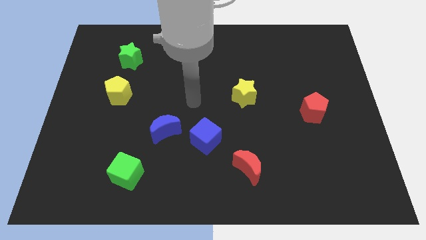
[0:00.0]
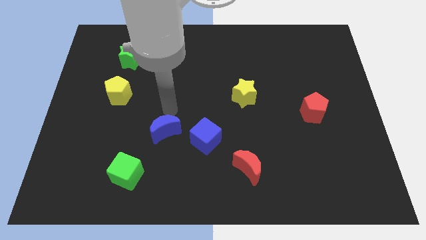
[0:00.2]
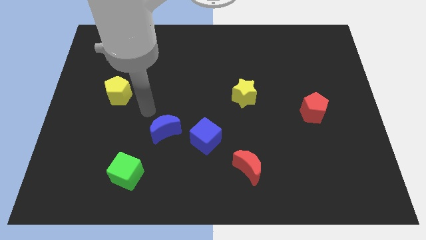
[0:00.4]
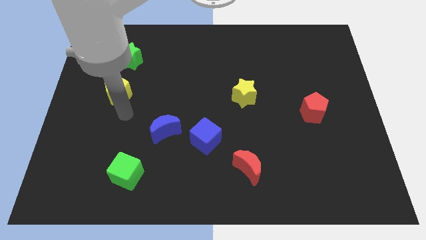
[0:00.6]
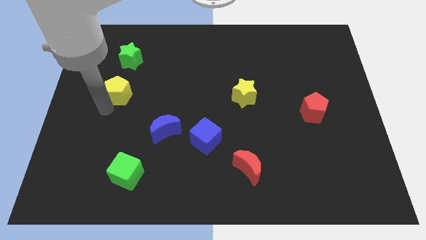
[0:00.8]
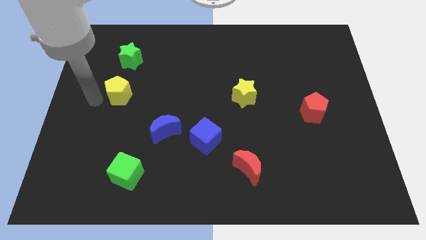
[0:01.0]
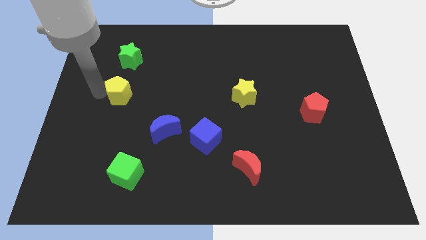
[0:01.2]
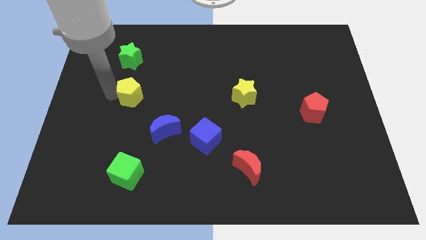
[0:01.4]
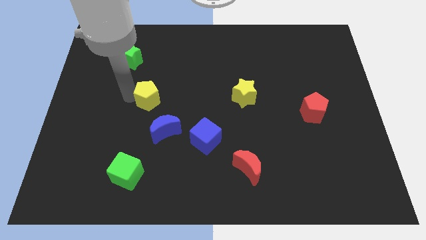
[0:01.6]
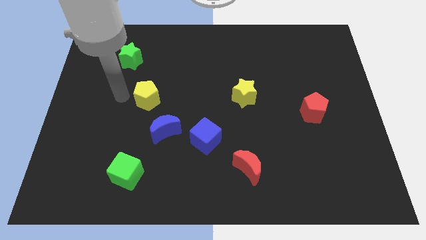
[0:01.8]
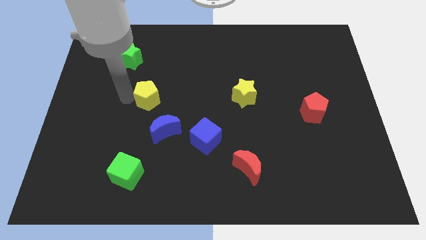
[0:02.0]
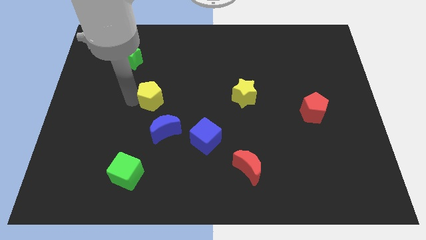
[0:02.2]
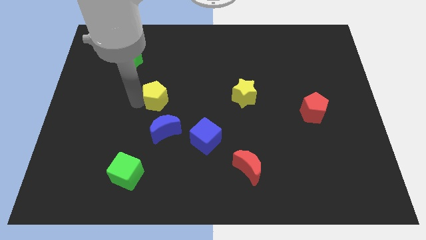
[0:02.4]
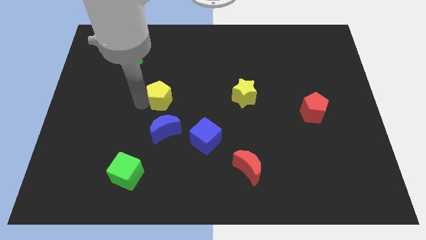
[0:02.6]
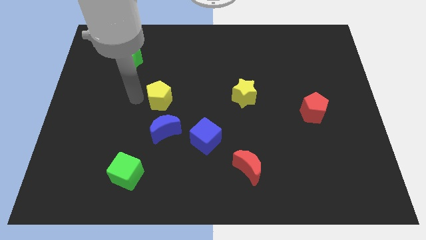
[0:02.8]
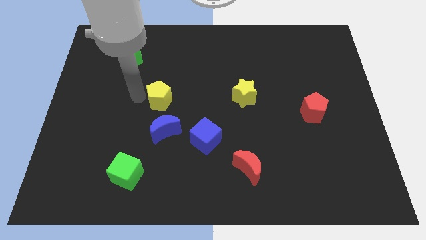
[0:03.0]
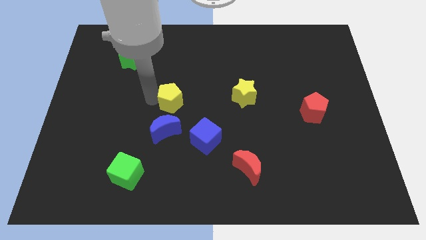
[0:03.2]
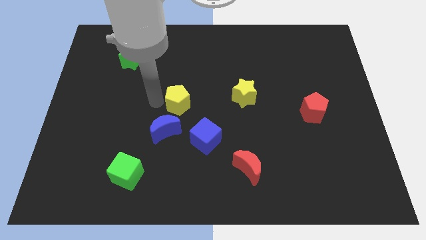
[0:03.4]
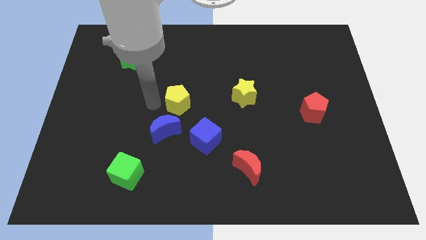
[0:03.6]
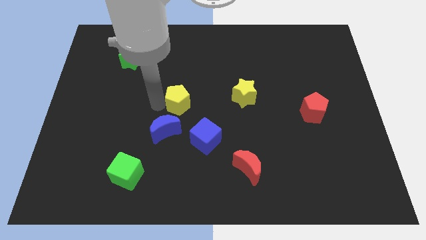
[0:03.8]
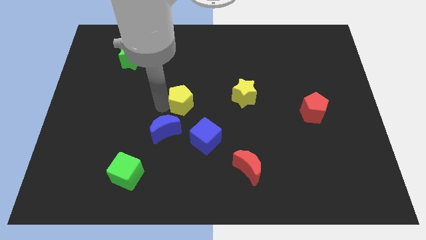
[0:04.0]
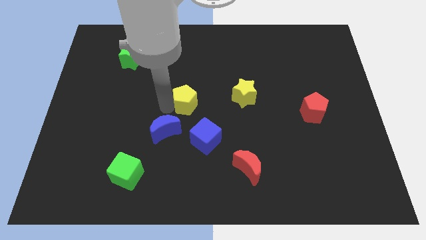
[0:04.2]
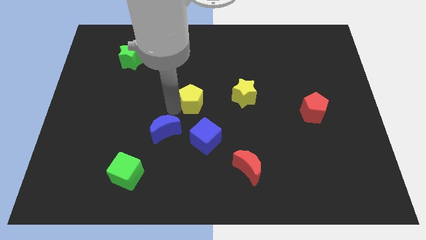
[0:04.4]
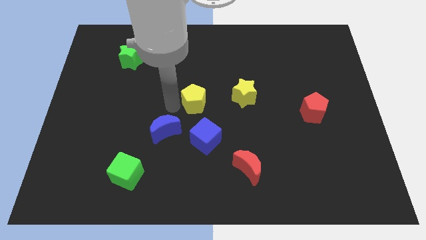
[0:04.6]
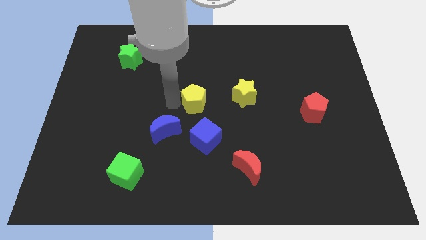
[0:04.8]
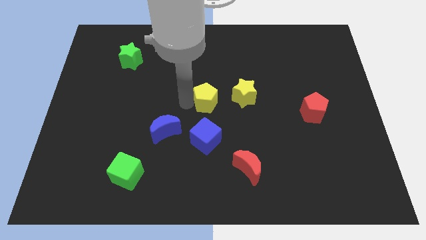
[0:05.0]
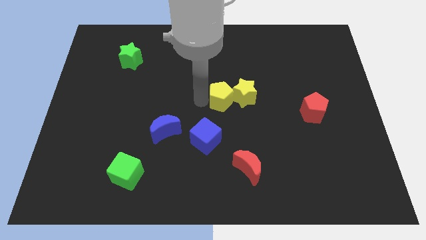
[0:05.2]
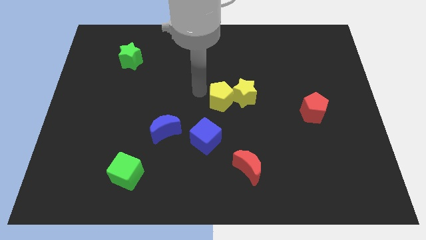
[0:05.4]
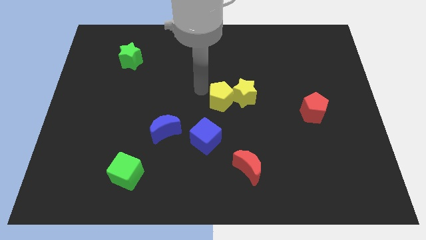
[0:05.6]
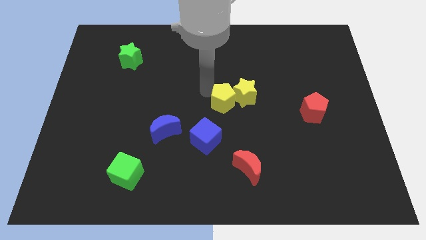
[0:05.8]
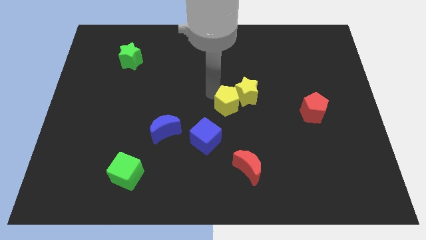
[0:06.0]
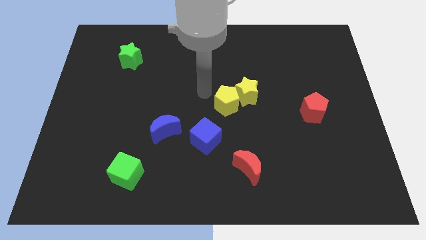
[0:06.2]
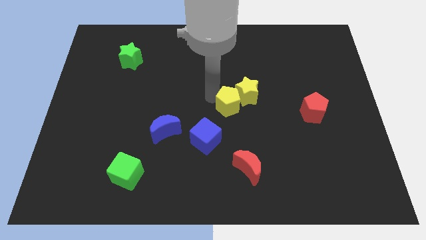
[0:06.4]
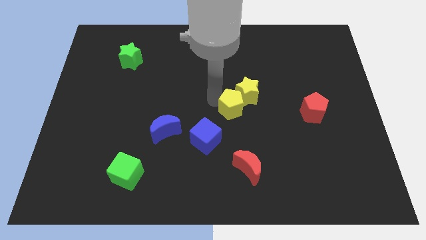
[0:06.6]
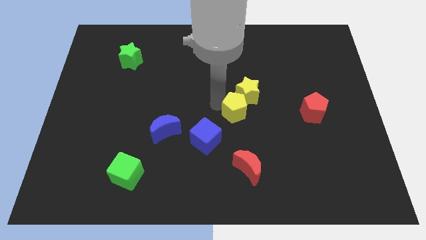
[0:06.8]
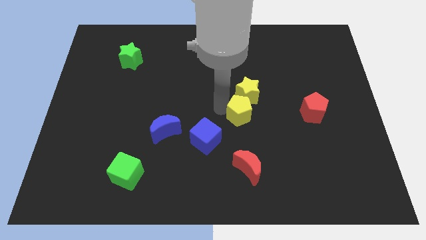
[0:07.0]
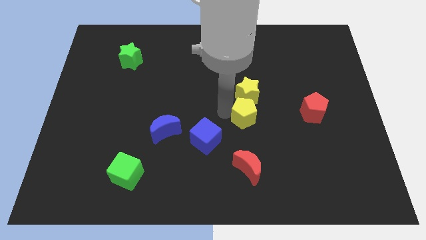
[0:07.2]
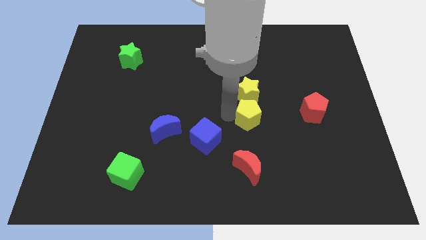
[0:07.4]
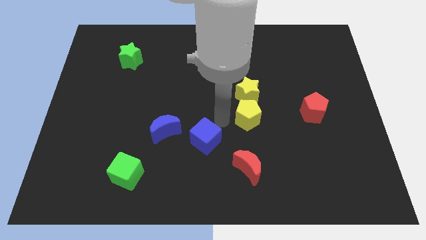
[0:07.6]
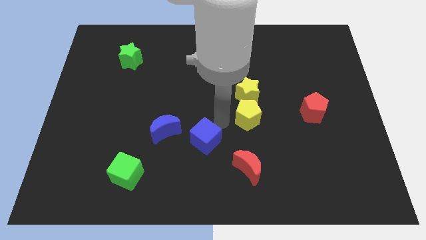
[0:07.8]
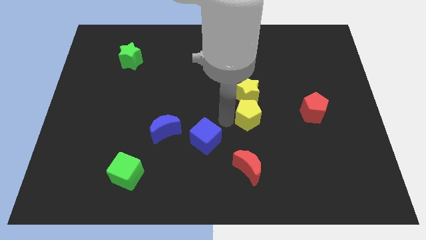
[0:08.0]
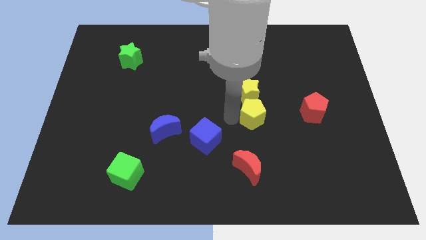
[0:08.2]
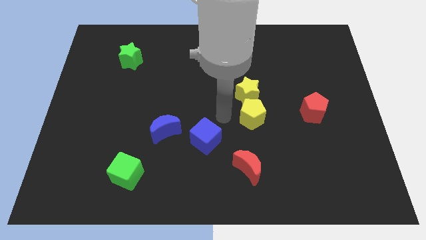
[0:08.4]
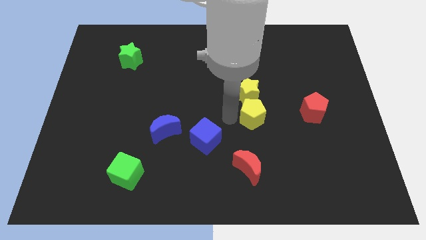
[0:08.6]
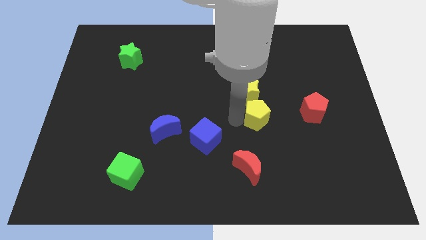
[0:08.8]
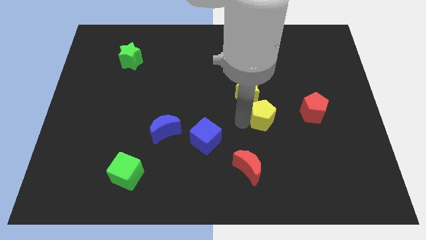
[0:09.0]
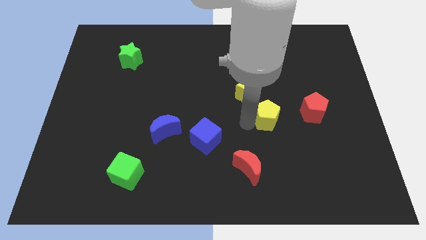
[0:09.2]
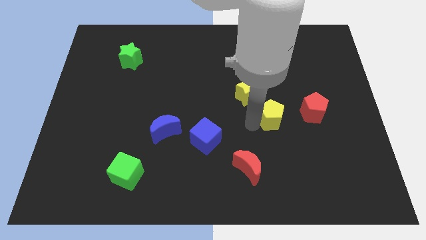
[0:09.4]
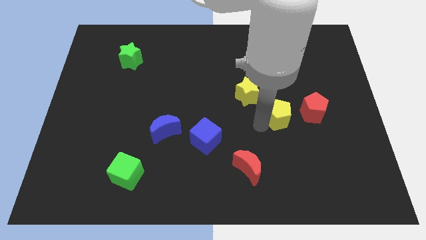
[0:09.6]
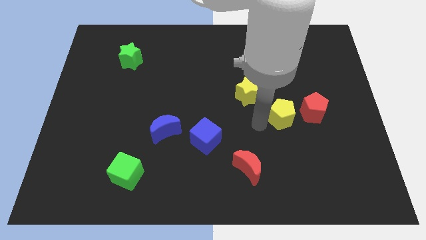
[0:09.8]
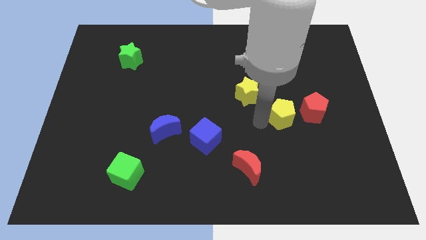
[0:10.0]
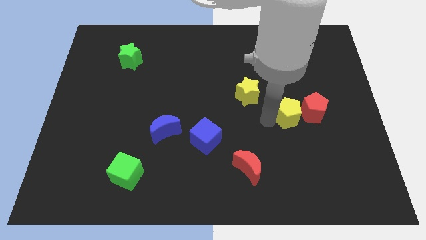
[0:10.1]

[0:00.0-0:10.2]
move the yellow pentagon next to the red pentagon

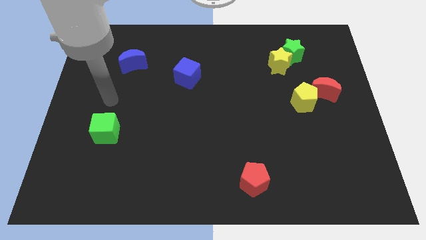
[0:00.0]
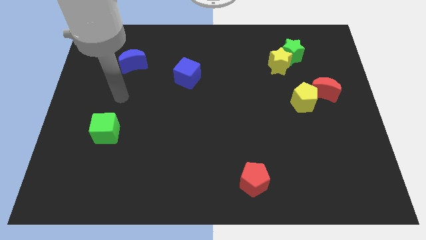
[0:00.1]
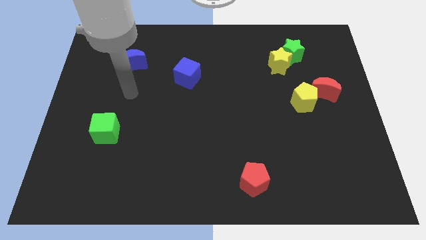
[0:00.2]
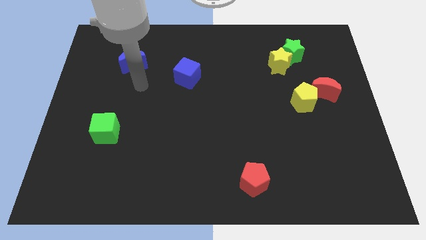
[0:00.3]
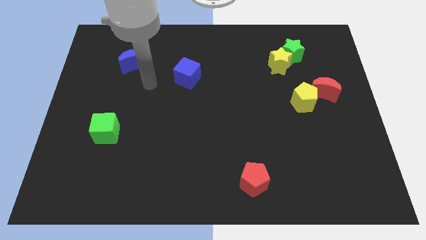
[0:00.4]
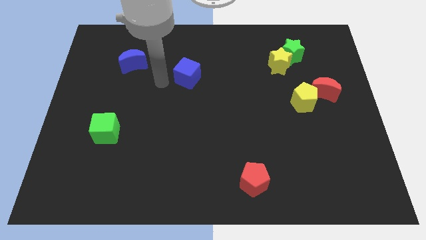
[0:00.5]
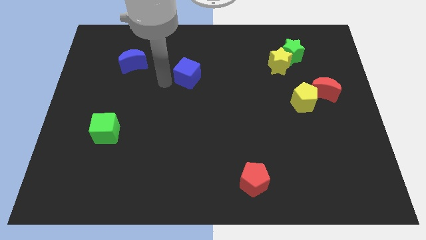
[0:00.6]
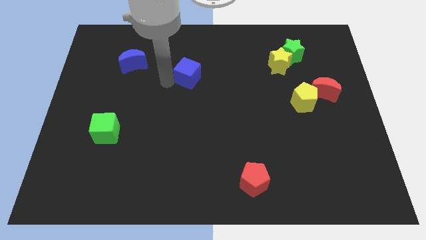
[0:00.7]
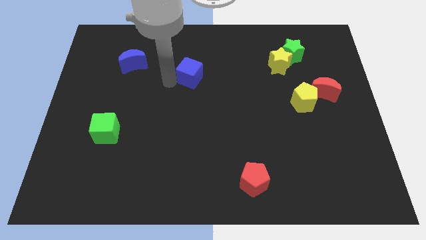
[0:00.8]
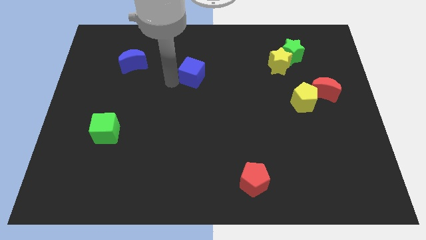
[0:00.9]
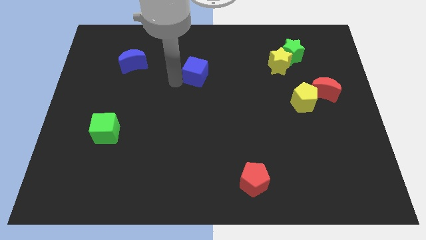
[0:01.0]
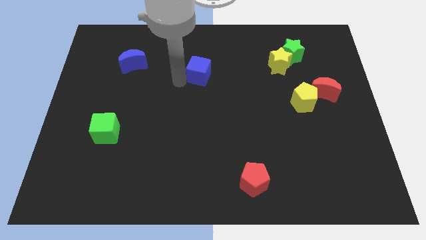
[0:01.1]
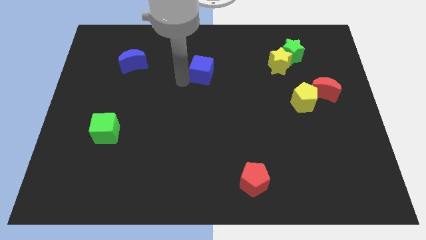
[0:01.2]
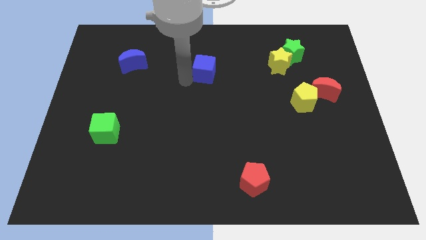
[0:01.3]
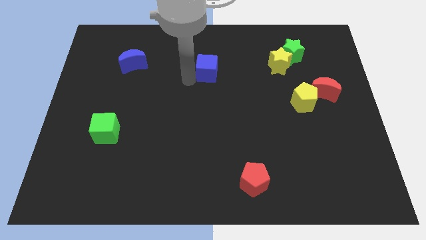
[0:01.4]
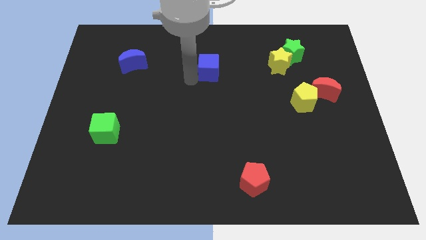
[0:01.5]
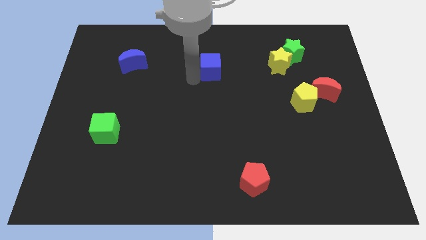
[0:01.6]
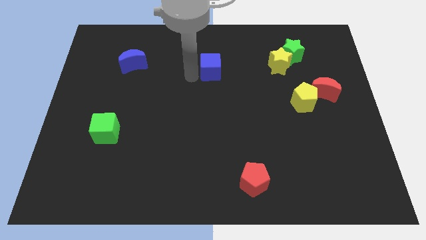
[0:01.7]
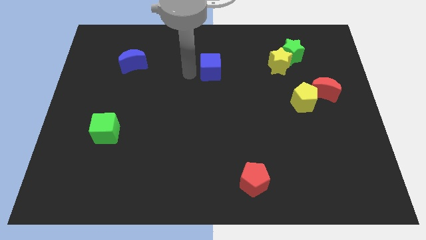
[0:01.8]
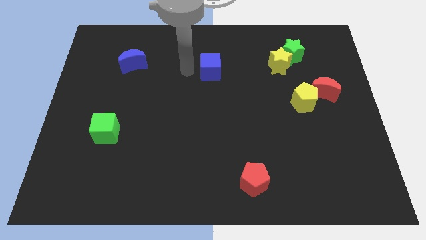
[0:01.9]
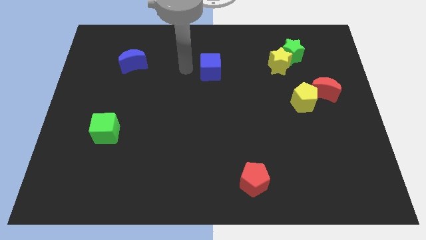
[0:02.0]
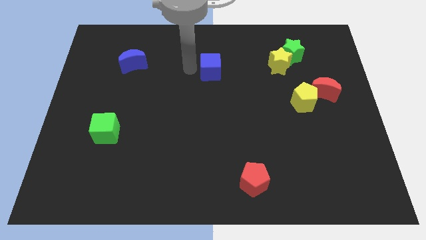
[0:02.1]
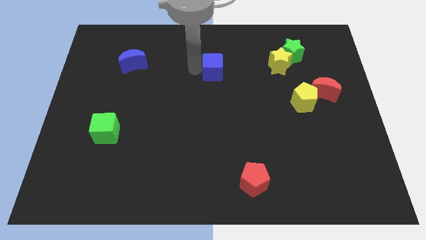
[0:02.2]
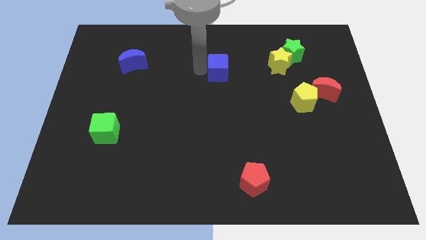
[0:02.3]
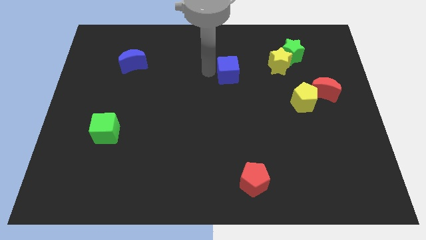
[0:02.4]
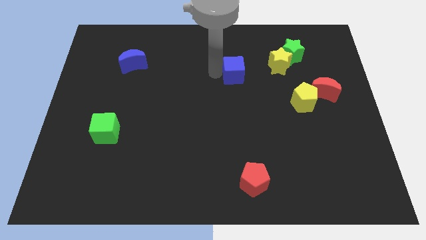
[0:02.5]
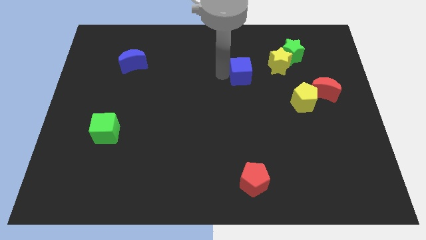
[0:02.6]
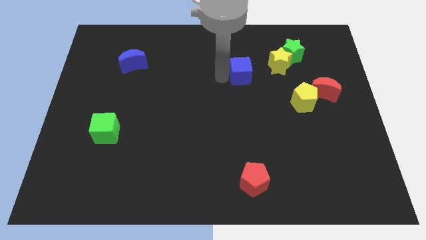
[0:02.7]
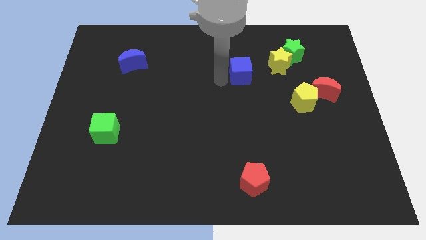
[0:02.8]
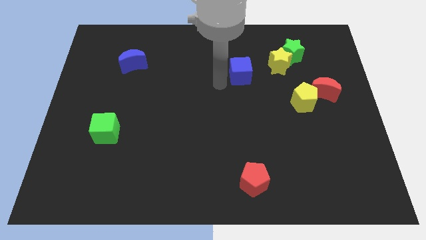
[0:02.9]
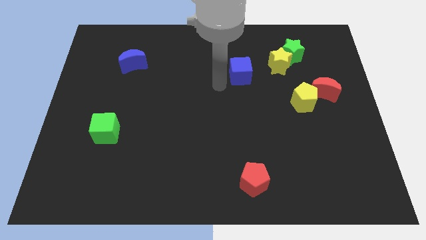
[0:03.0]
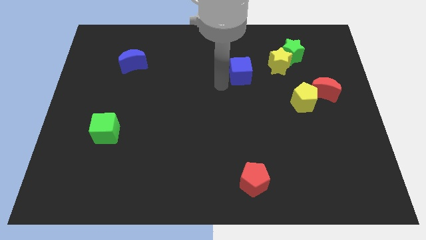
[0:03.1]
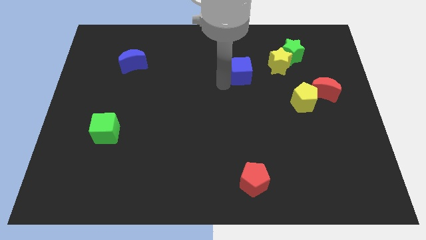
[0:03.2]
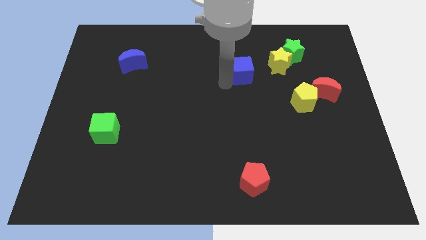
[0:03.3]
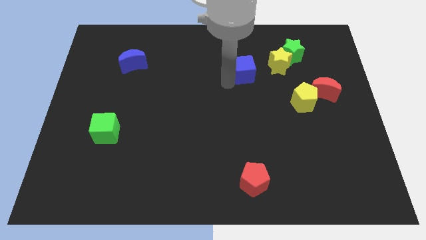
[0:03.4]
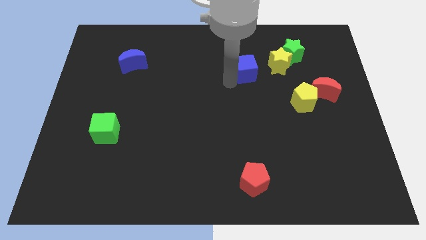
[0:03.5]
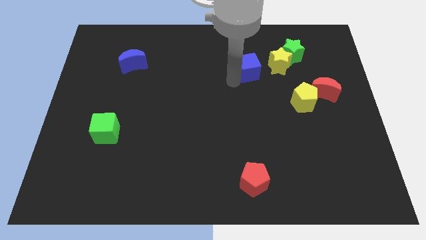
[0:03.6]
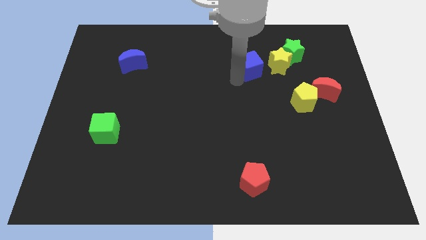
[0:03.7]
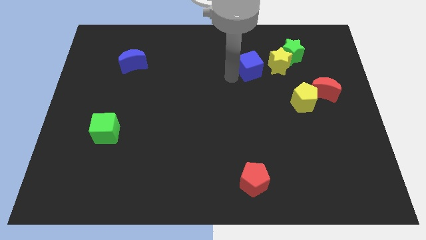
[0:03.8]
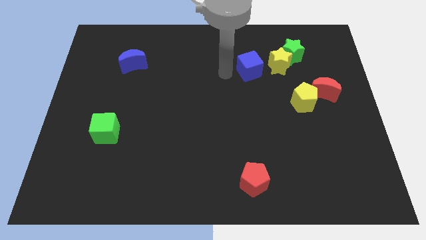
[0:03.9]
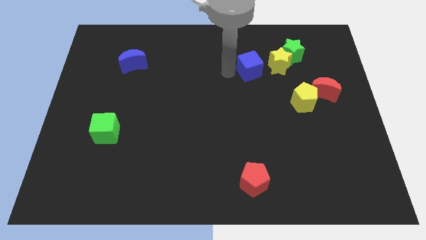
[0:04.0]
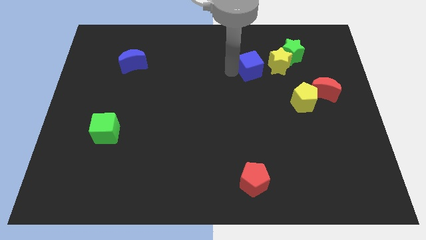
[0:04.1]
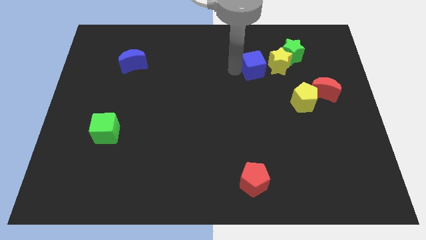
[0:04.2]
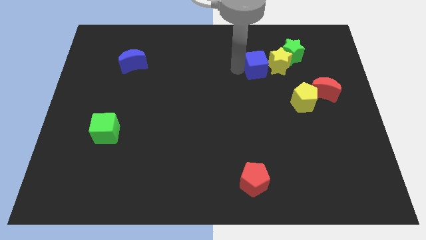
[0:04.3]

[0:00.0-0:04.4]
move the blue cube close to the yellow star
